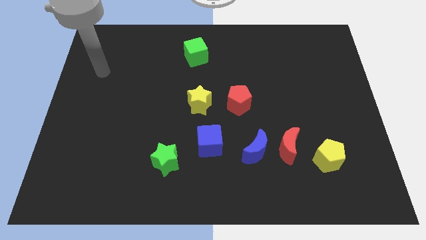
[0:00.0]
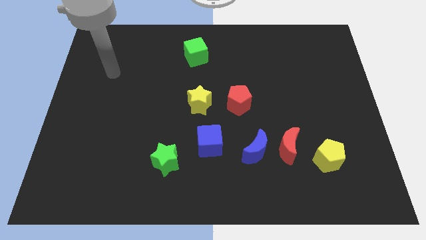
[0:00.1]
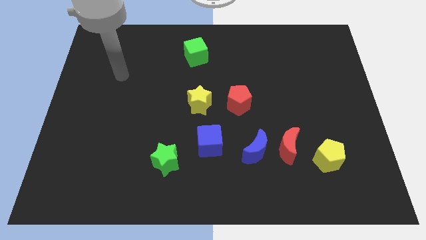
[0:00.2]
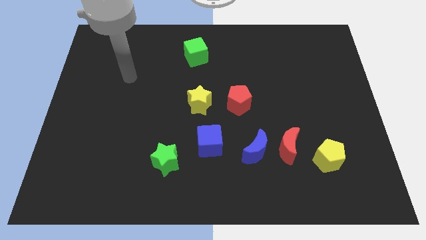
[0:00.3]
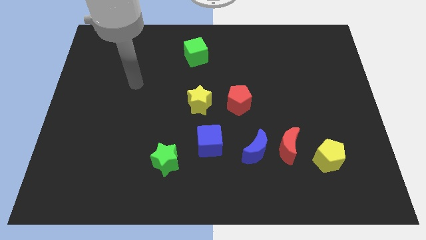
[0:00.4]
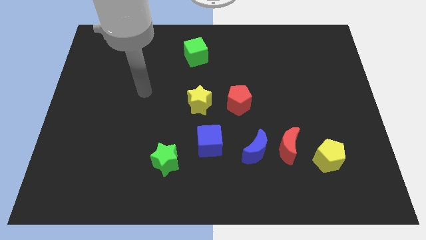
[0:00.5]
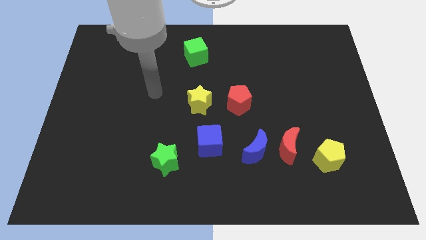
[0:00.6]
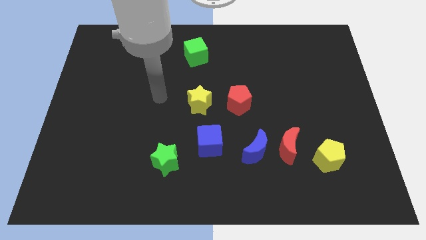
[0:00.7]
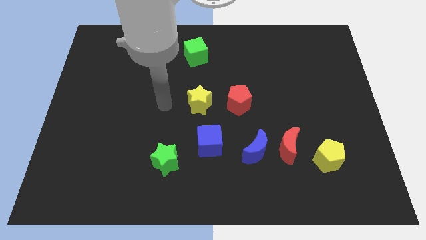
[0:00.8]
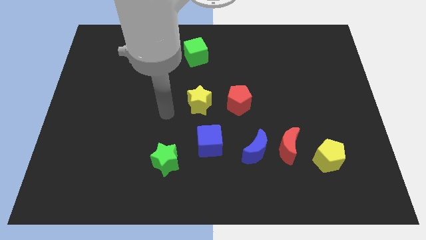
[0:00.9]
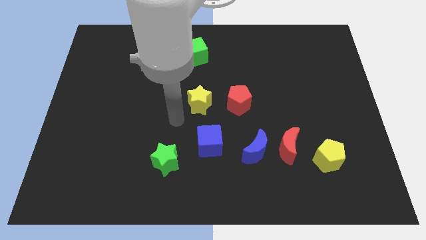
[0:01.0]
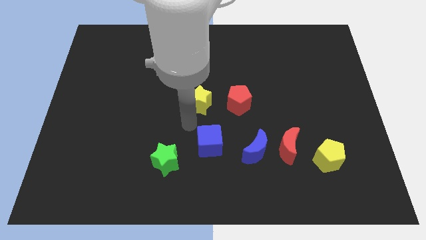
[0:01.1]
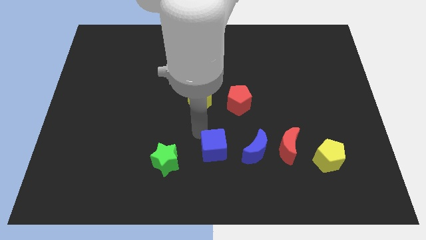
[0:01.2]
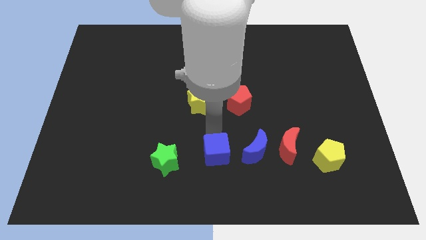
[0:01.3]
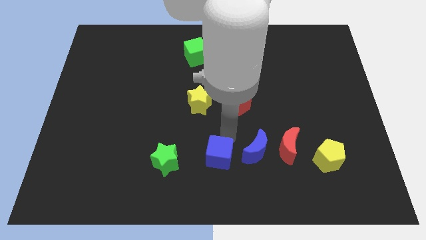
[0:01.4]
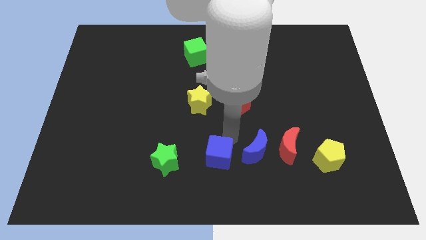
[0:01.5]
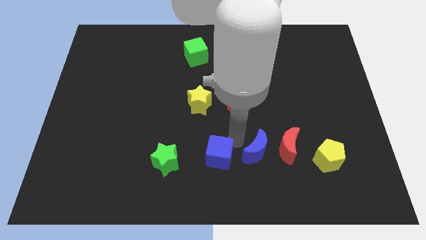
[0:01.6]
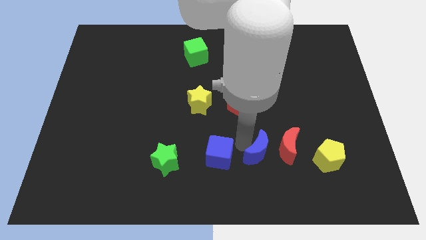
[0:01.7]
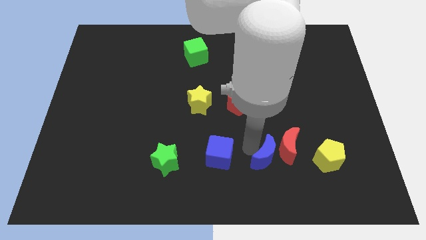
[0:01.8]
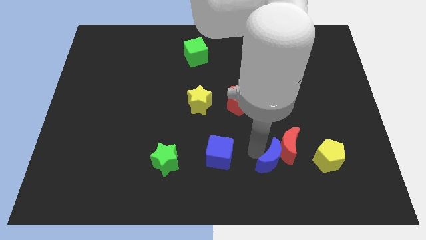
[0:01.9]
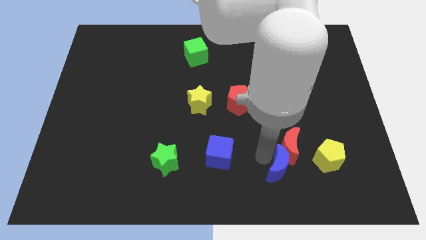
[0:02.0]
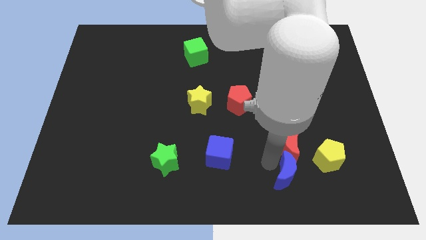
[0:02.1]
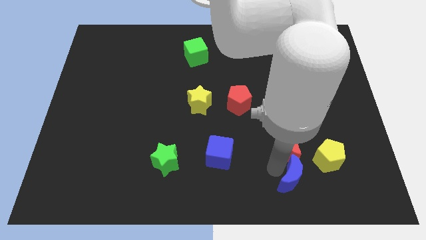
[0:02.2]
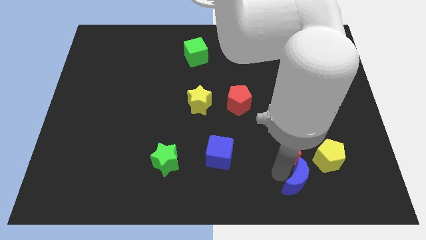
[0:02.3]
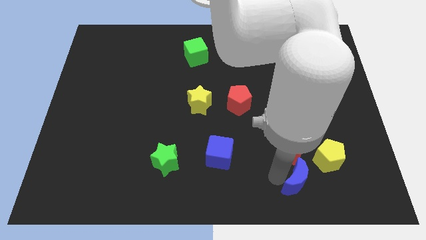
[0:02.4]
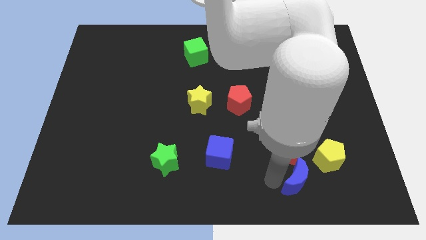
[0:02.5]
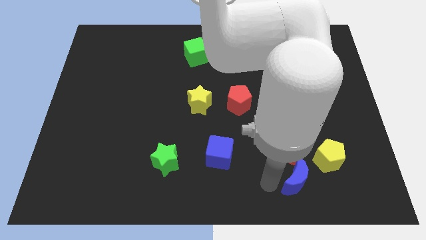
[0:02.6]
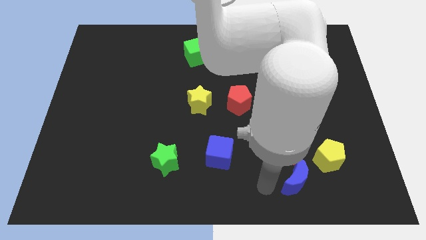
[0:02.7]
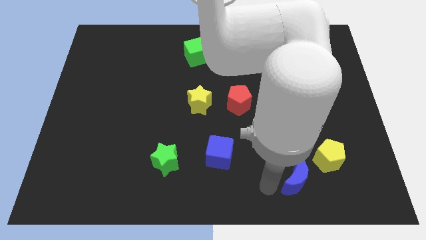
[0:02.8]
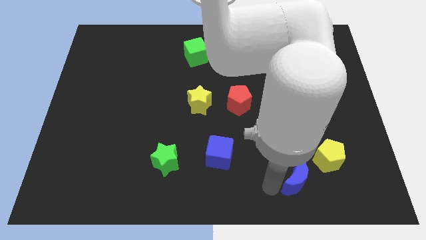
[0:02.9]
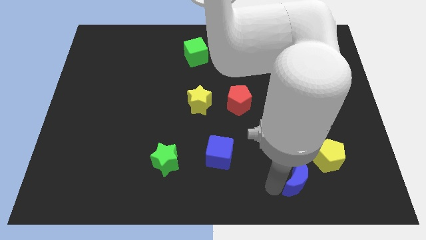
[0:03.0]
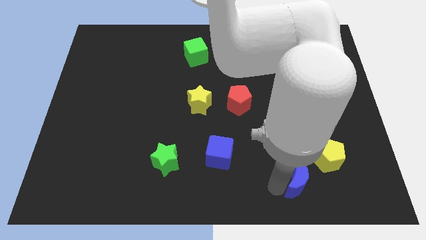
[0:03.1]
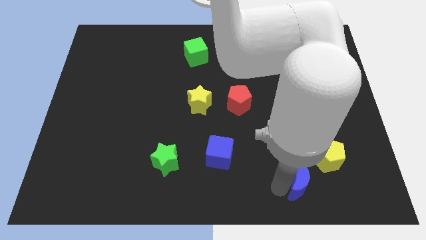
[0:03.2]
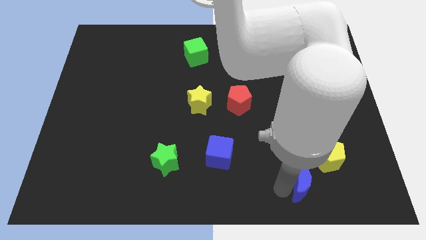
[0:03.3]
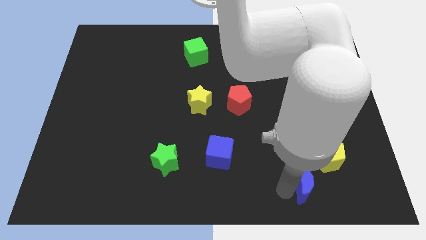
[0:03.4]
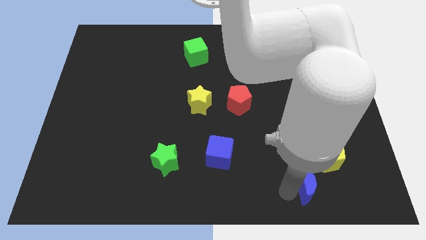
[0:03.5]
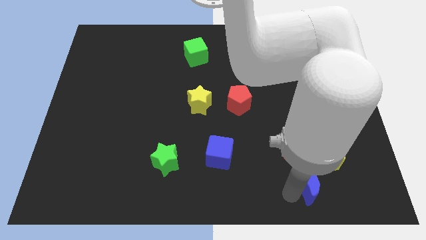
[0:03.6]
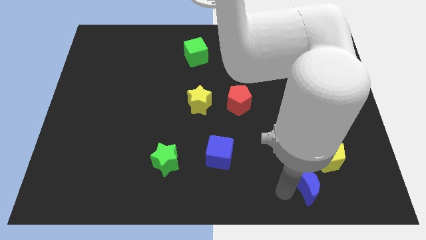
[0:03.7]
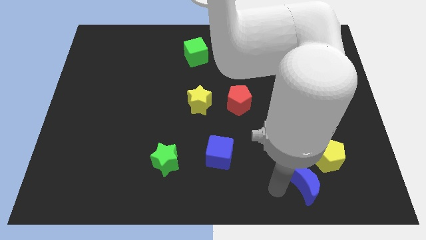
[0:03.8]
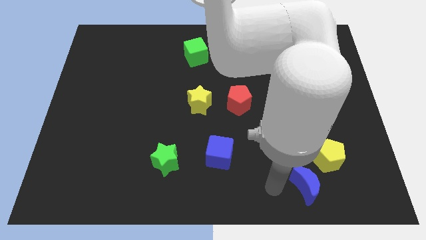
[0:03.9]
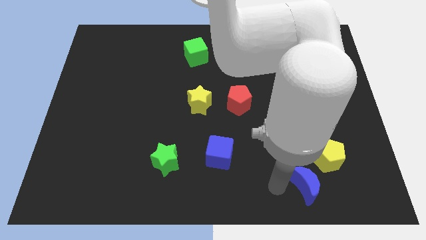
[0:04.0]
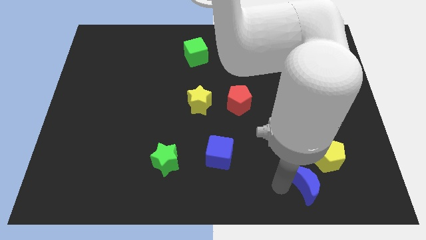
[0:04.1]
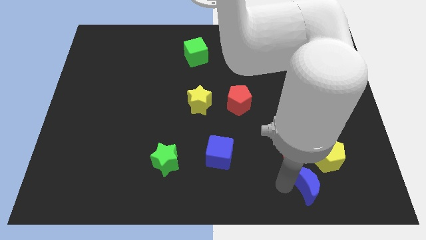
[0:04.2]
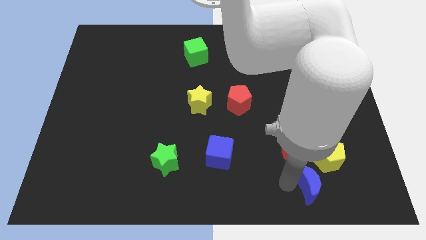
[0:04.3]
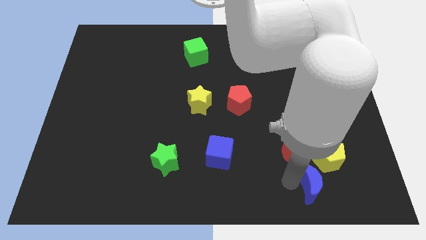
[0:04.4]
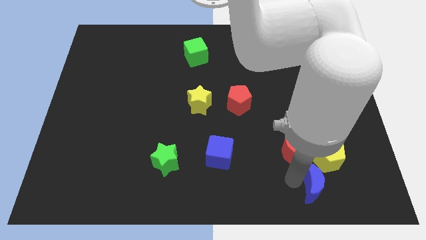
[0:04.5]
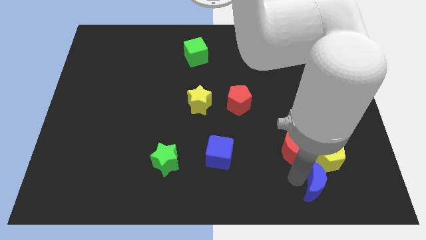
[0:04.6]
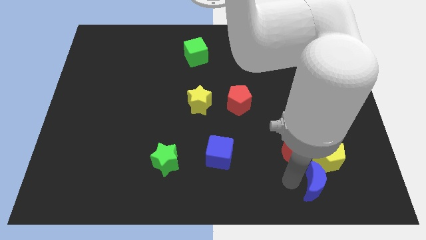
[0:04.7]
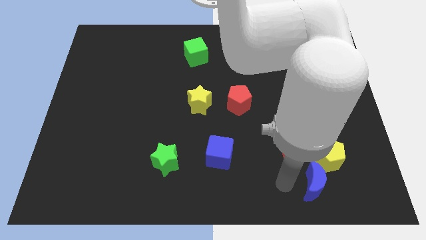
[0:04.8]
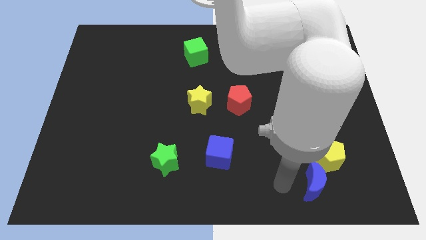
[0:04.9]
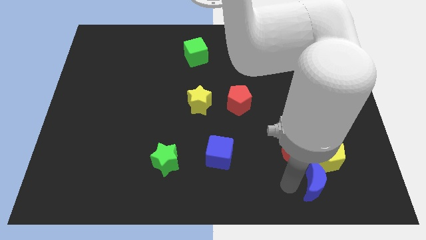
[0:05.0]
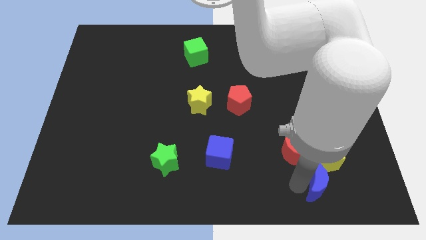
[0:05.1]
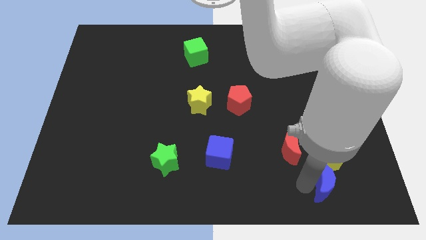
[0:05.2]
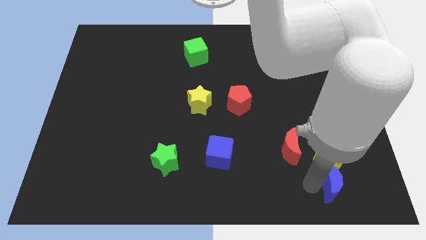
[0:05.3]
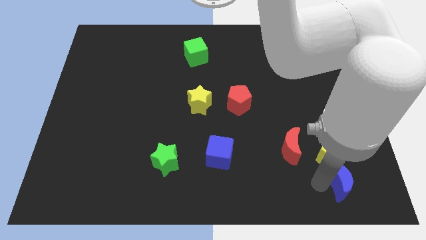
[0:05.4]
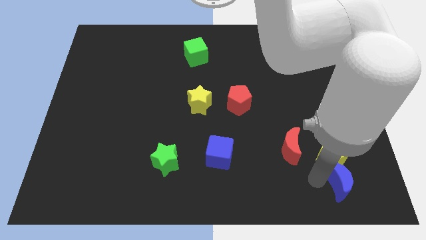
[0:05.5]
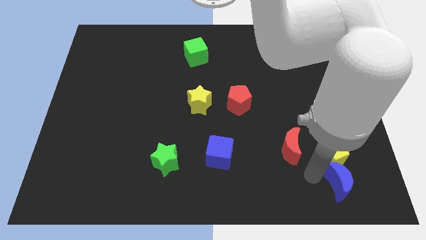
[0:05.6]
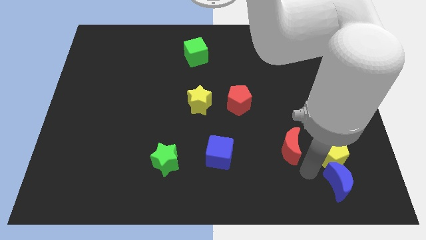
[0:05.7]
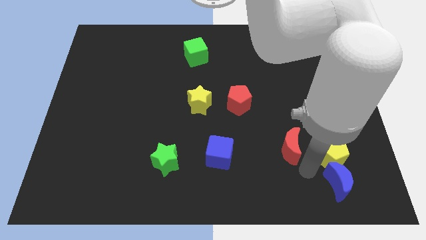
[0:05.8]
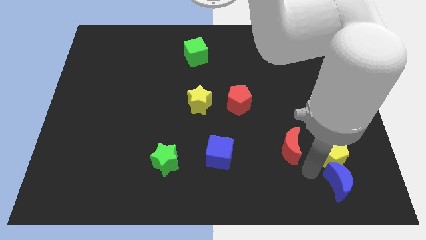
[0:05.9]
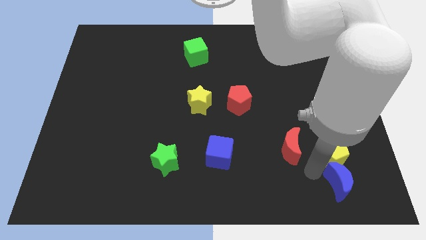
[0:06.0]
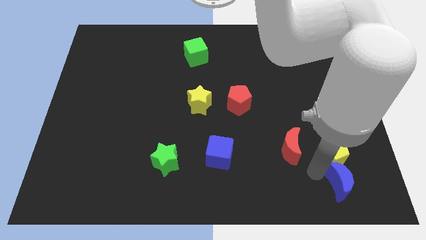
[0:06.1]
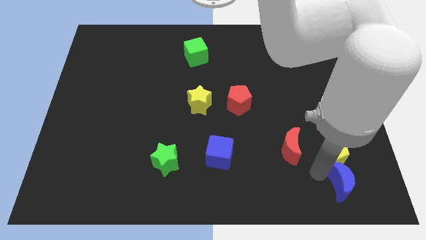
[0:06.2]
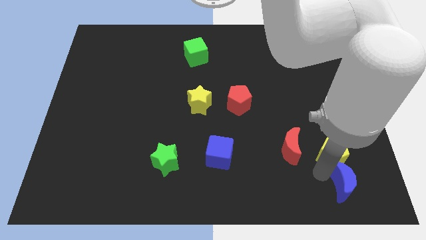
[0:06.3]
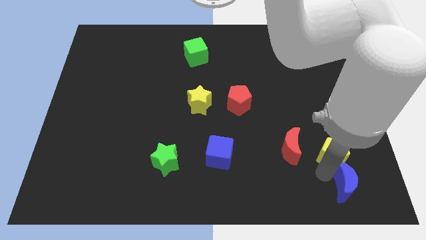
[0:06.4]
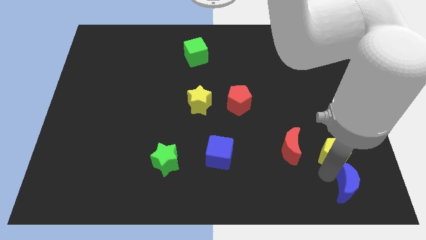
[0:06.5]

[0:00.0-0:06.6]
push the blue moon to the lower right corner
